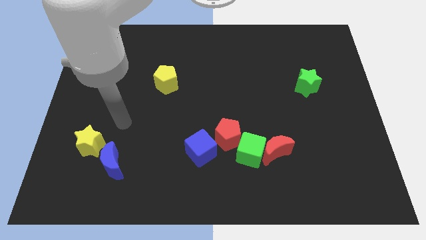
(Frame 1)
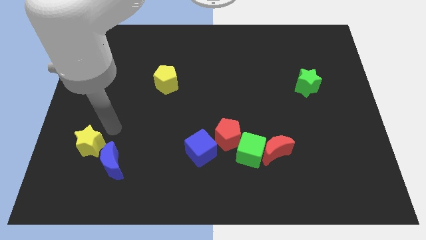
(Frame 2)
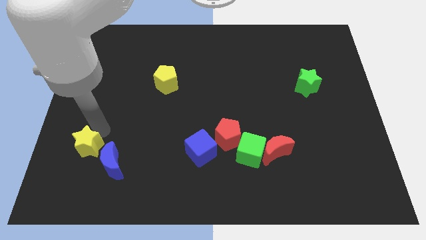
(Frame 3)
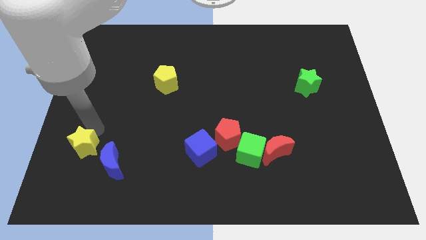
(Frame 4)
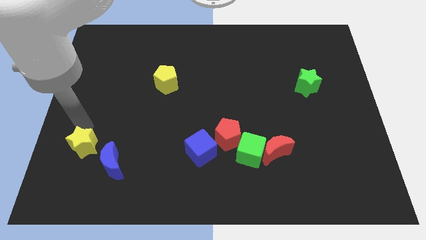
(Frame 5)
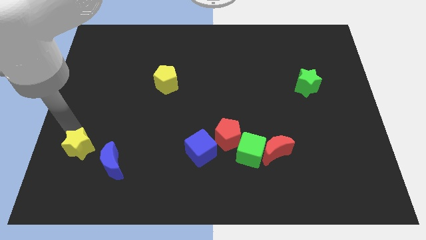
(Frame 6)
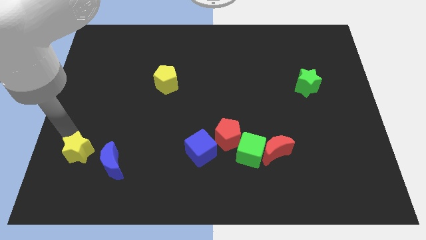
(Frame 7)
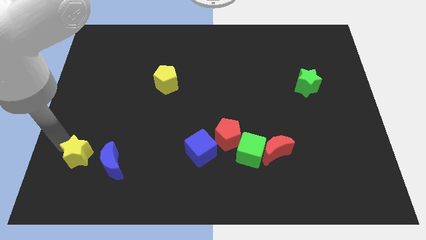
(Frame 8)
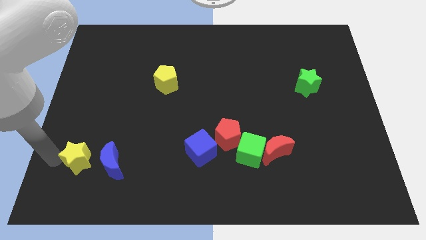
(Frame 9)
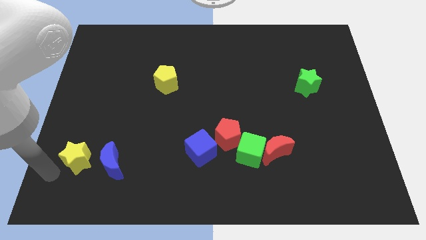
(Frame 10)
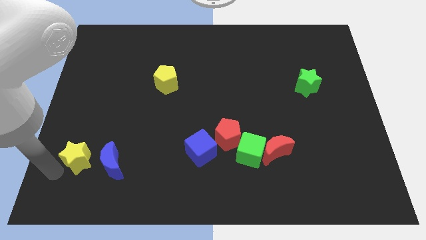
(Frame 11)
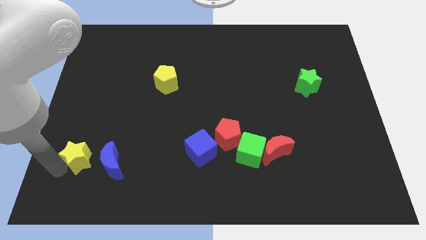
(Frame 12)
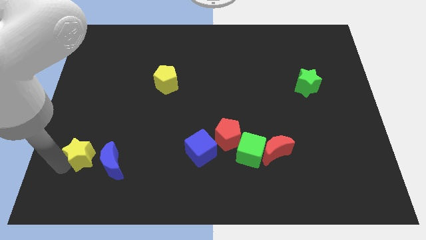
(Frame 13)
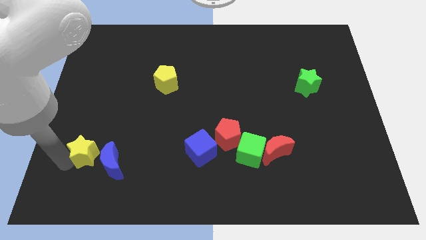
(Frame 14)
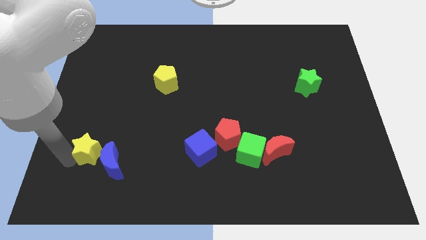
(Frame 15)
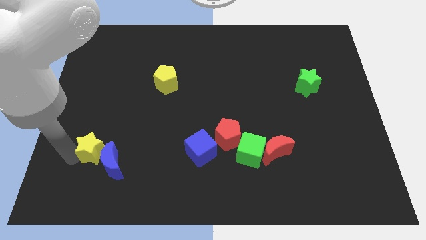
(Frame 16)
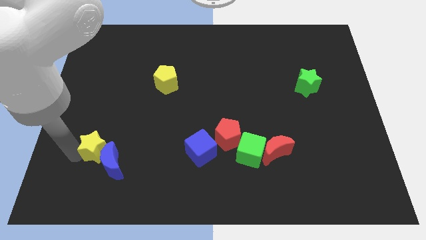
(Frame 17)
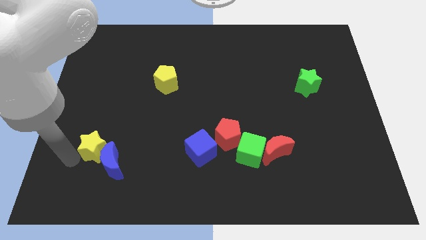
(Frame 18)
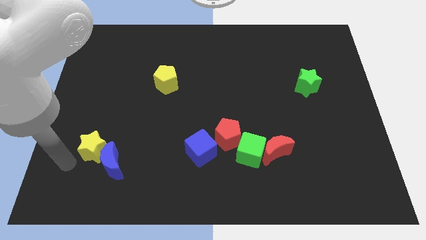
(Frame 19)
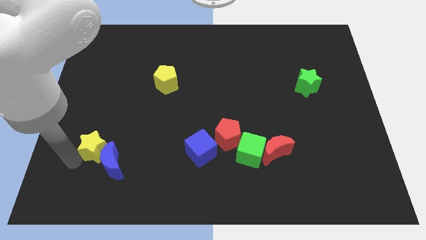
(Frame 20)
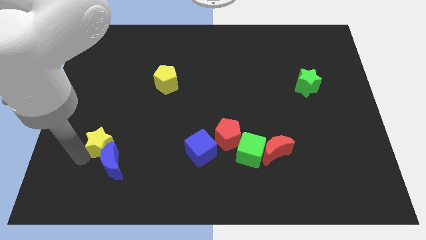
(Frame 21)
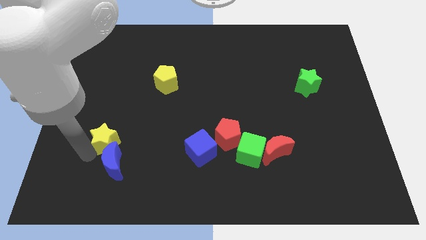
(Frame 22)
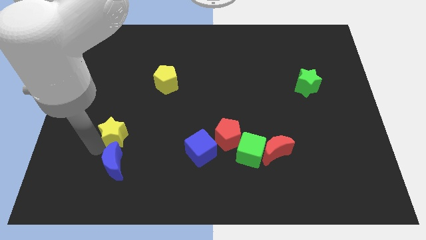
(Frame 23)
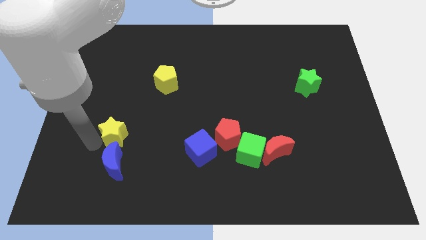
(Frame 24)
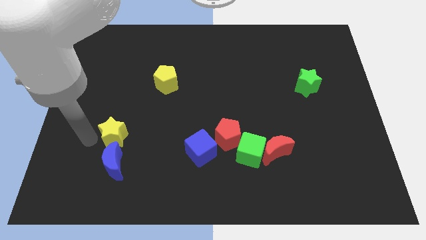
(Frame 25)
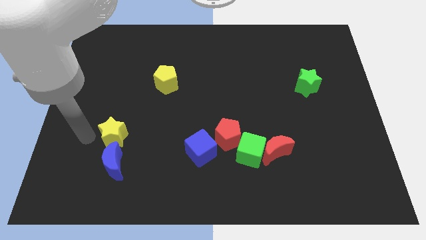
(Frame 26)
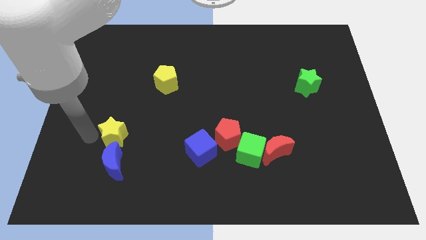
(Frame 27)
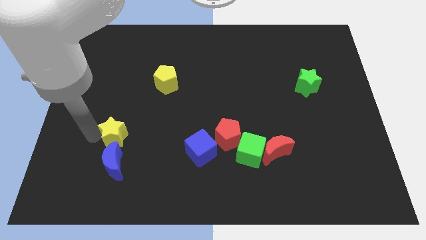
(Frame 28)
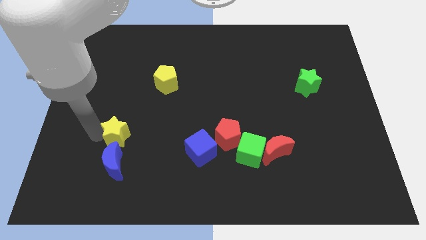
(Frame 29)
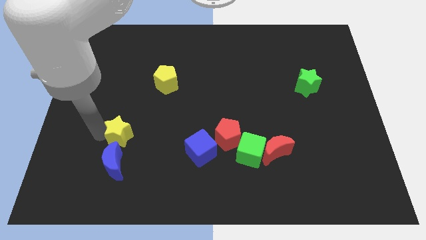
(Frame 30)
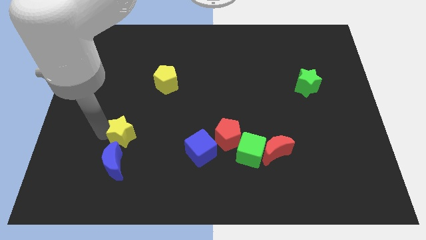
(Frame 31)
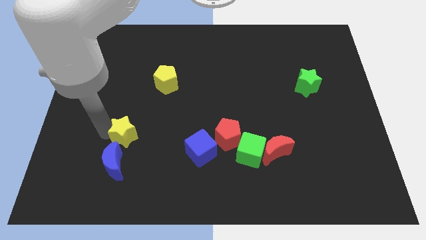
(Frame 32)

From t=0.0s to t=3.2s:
push the yellow star right a bit

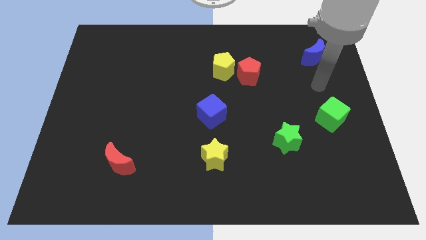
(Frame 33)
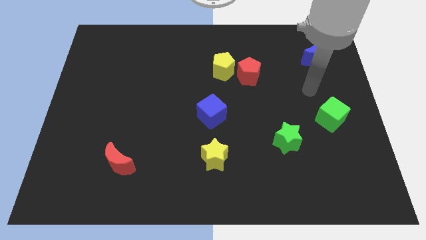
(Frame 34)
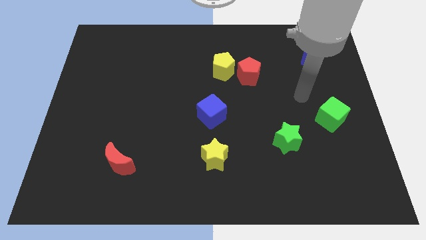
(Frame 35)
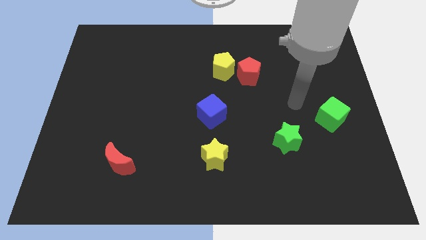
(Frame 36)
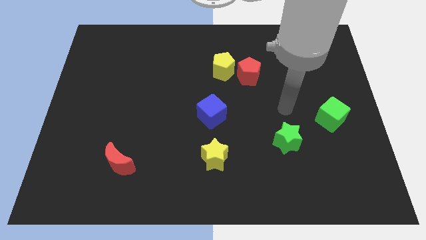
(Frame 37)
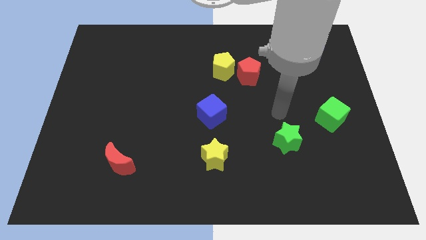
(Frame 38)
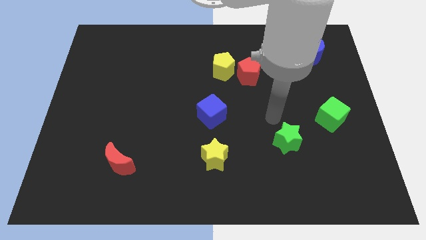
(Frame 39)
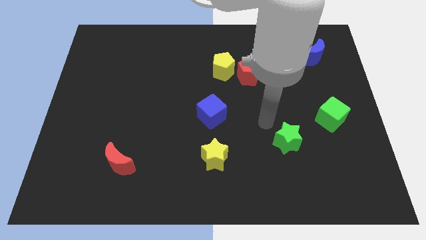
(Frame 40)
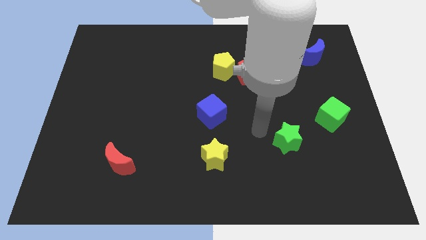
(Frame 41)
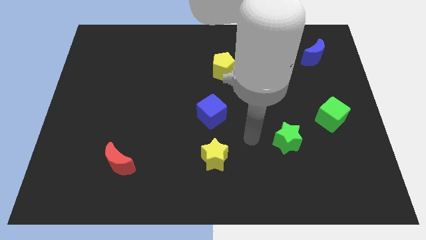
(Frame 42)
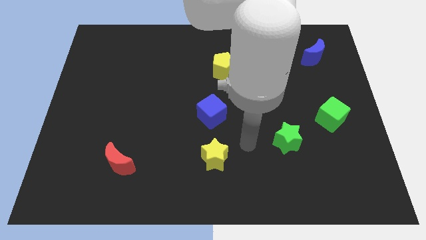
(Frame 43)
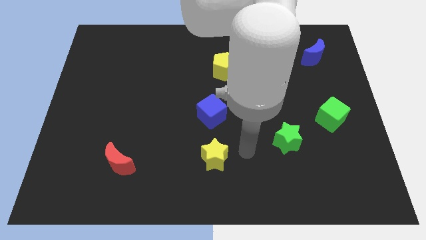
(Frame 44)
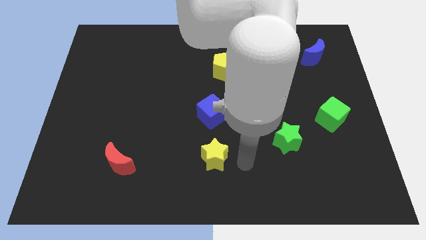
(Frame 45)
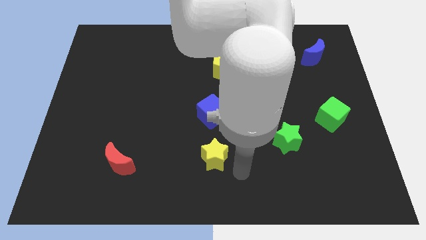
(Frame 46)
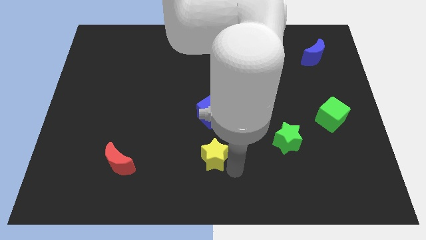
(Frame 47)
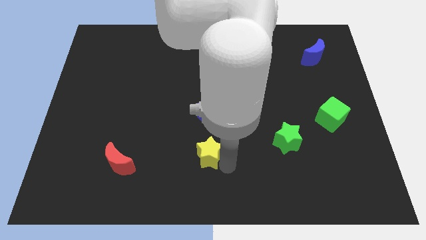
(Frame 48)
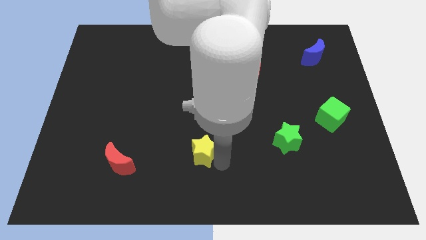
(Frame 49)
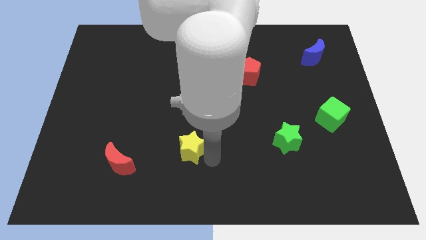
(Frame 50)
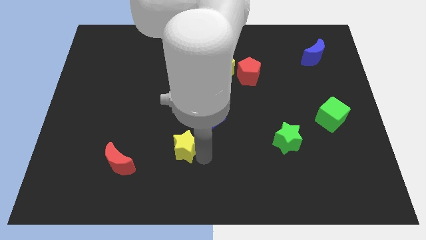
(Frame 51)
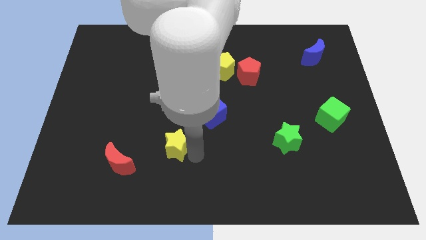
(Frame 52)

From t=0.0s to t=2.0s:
move the yellow star up and then left slightly

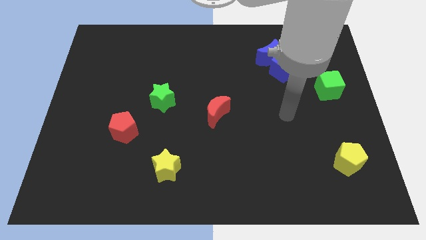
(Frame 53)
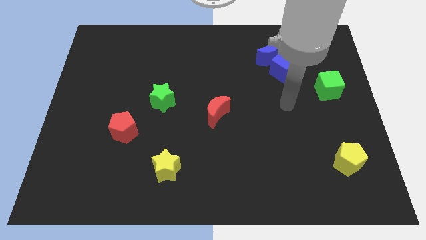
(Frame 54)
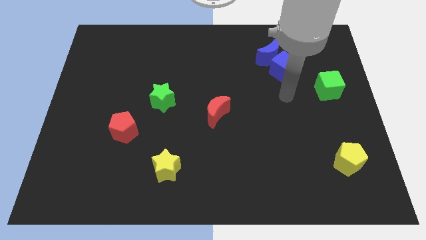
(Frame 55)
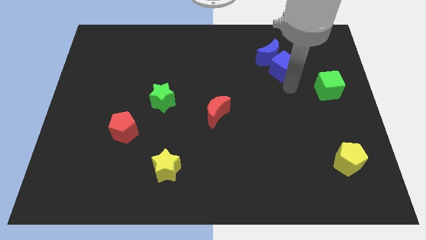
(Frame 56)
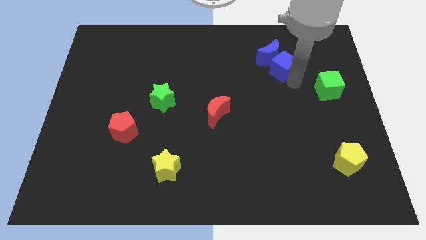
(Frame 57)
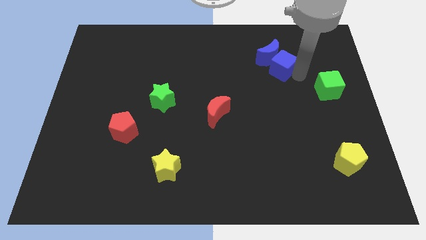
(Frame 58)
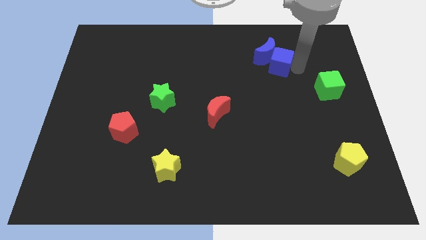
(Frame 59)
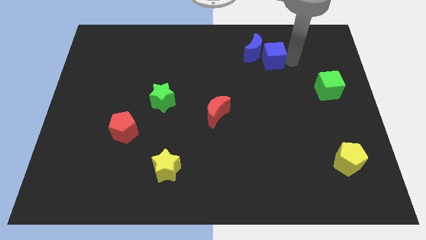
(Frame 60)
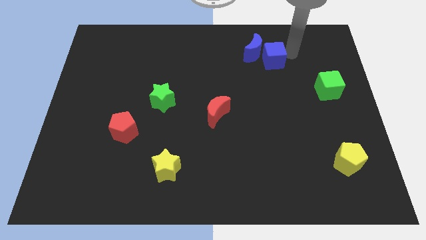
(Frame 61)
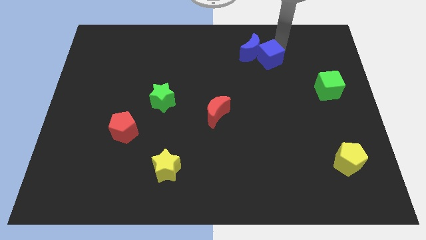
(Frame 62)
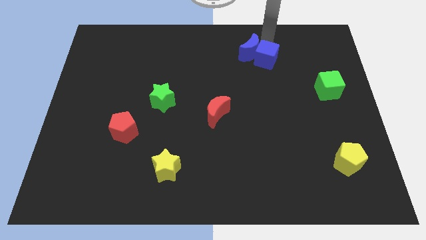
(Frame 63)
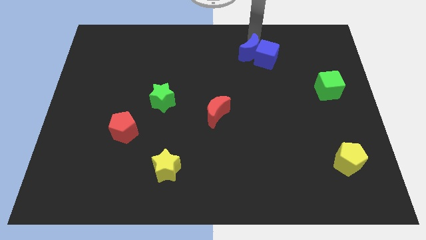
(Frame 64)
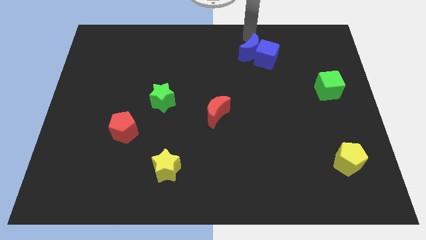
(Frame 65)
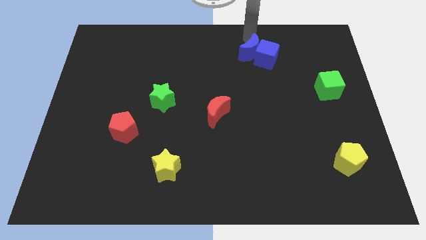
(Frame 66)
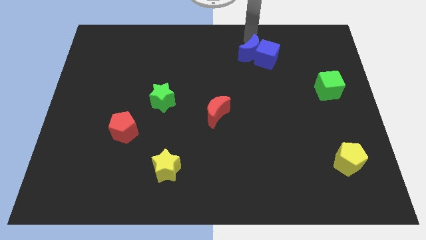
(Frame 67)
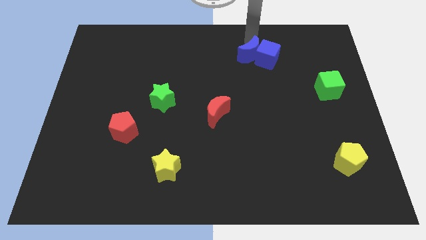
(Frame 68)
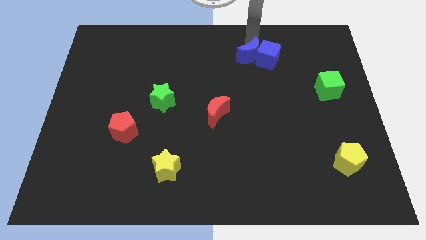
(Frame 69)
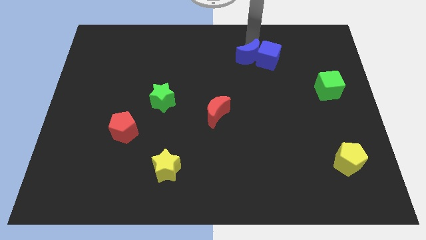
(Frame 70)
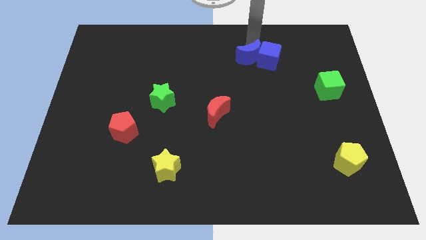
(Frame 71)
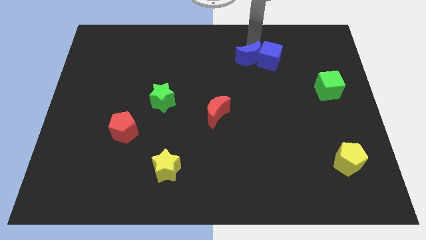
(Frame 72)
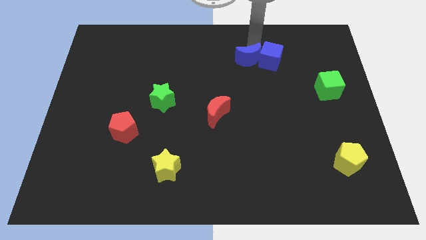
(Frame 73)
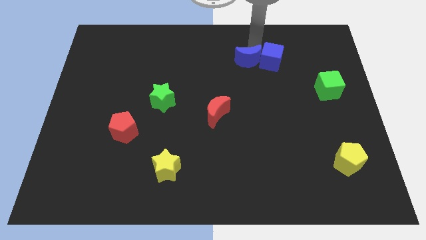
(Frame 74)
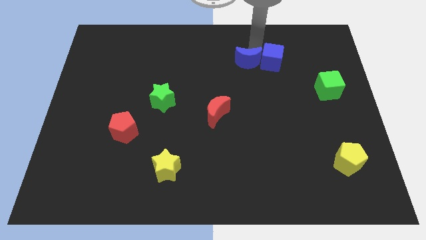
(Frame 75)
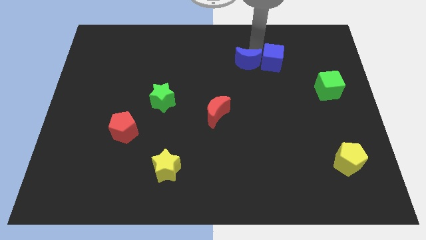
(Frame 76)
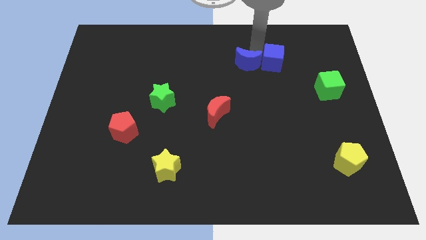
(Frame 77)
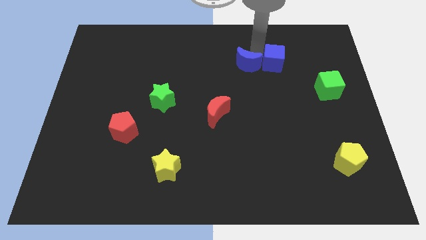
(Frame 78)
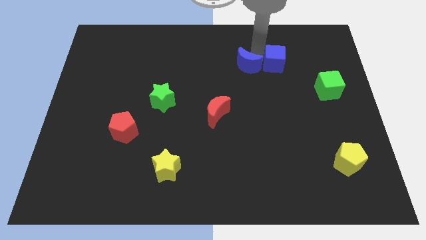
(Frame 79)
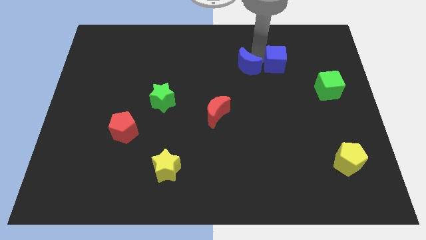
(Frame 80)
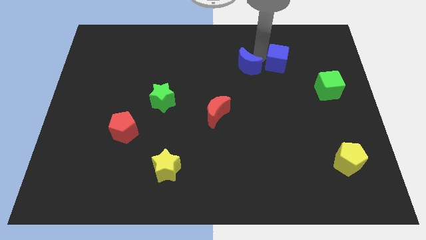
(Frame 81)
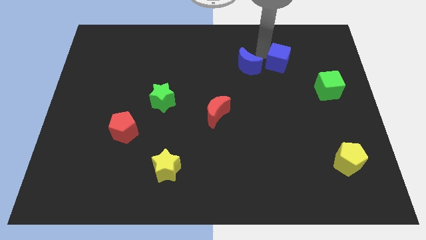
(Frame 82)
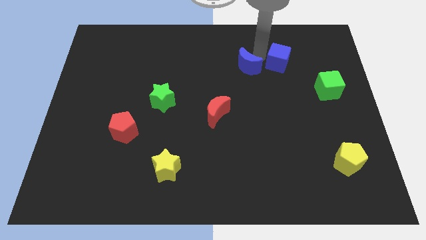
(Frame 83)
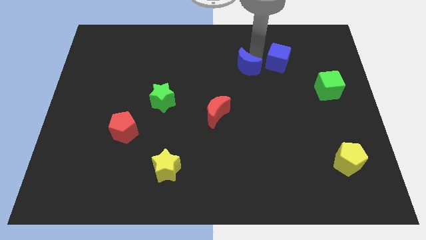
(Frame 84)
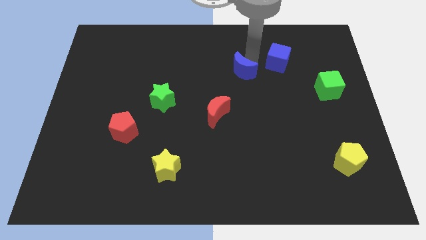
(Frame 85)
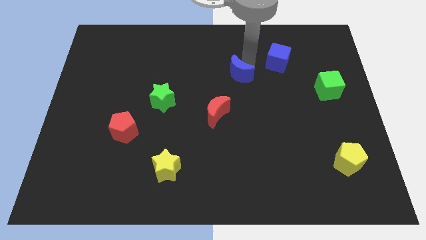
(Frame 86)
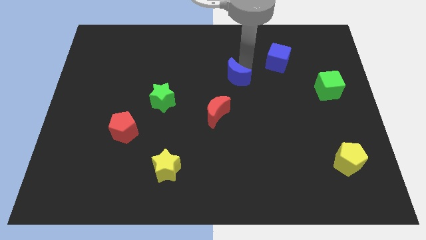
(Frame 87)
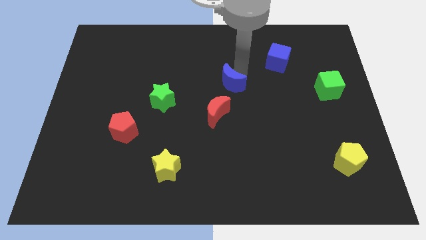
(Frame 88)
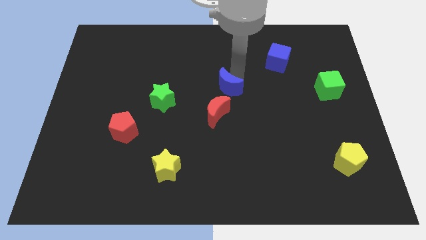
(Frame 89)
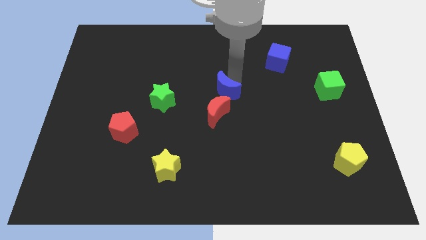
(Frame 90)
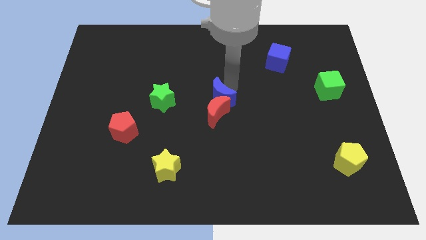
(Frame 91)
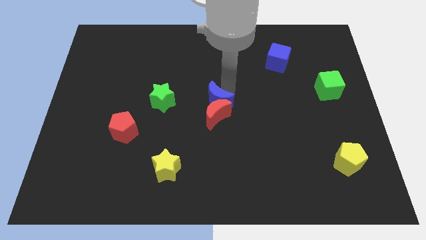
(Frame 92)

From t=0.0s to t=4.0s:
slide the blue moon downwards and left diagonally
